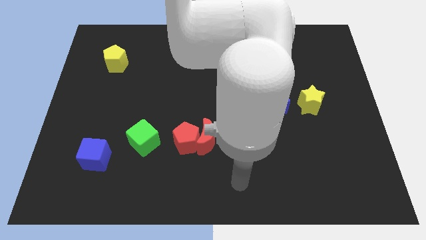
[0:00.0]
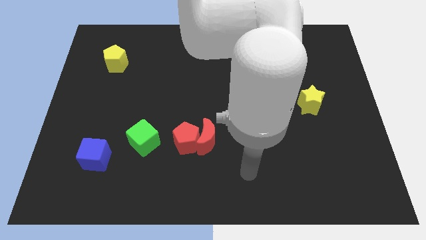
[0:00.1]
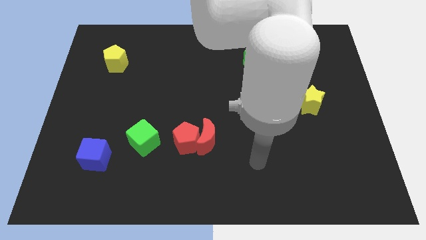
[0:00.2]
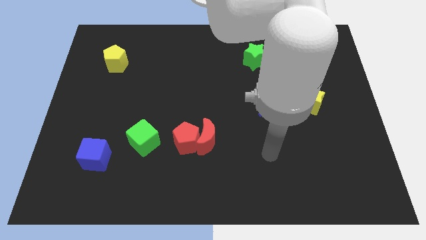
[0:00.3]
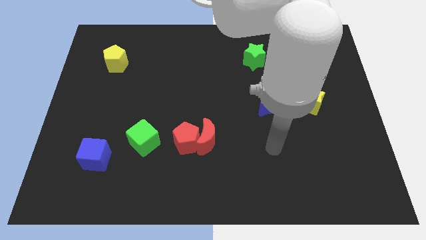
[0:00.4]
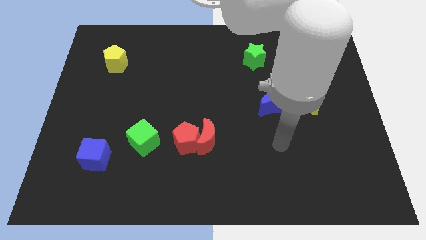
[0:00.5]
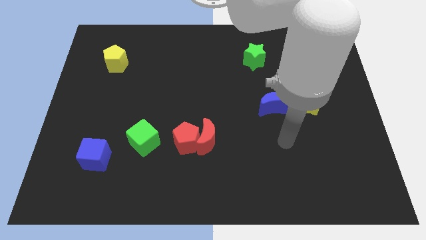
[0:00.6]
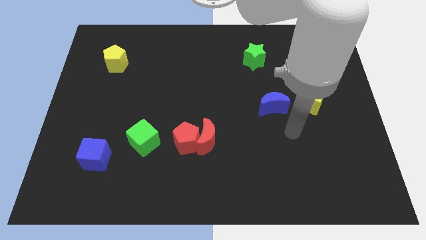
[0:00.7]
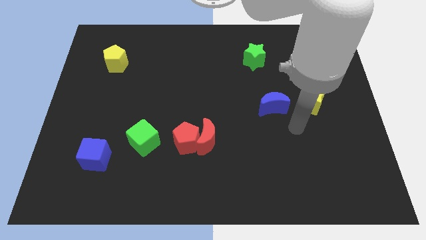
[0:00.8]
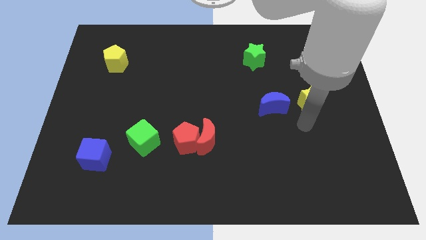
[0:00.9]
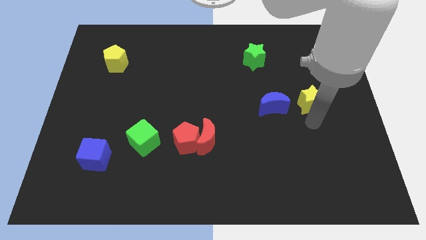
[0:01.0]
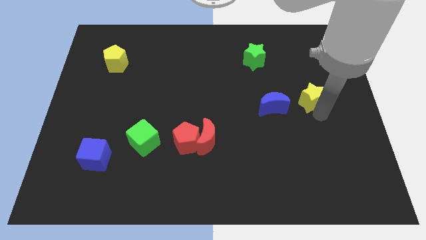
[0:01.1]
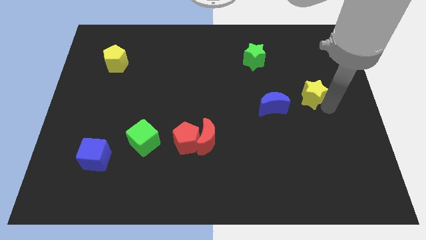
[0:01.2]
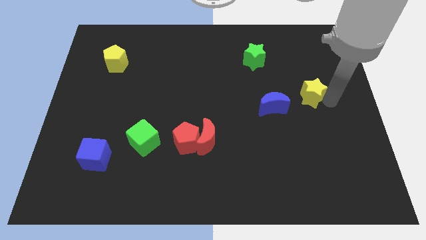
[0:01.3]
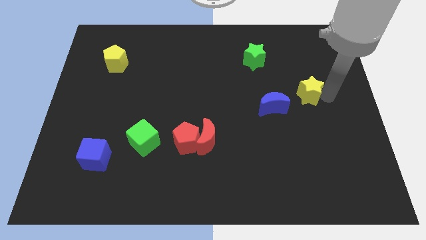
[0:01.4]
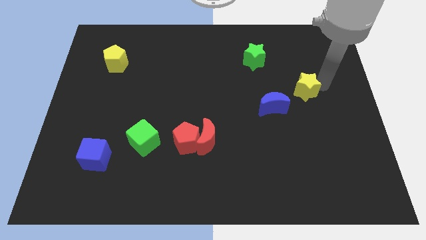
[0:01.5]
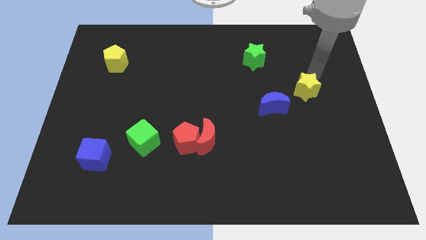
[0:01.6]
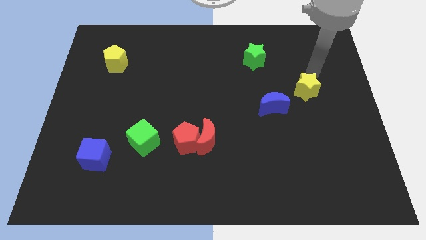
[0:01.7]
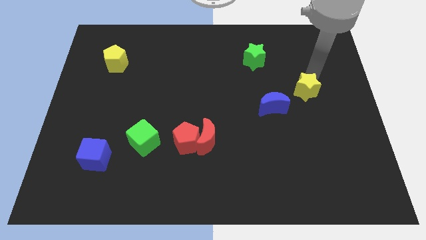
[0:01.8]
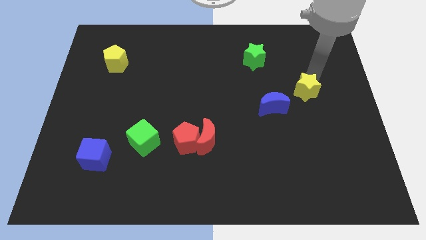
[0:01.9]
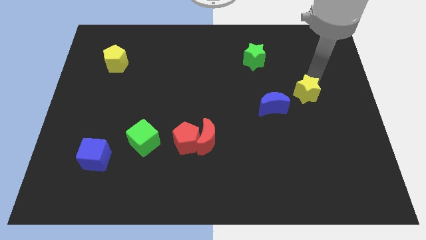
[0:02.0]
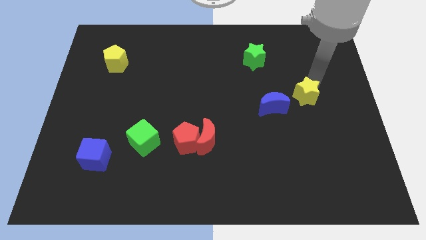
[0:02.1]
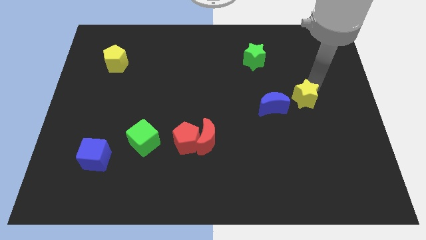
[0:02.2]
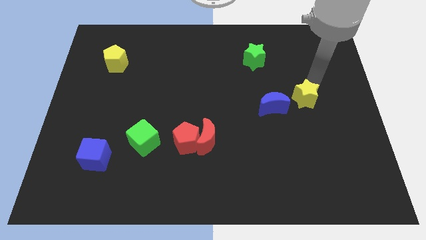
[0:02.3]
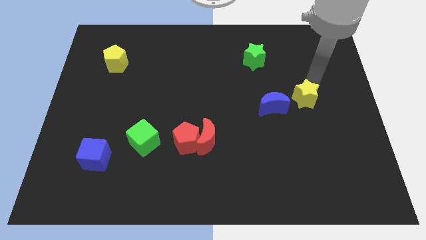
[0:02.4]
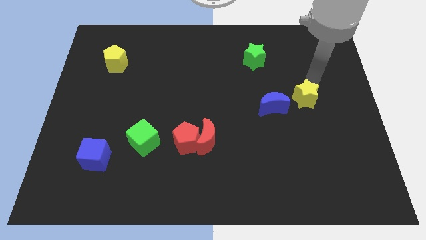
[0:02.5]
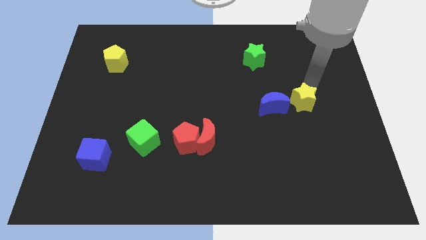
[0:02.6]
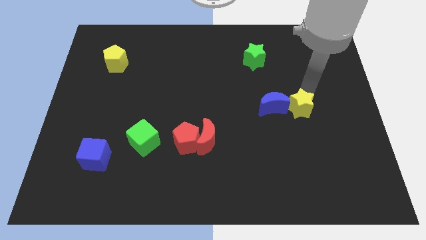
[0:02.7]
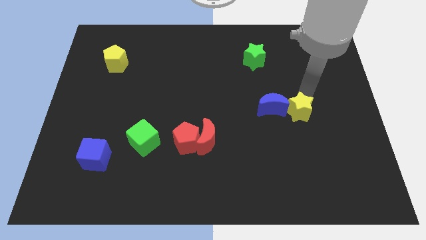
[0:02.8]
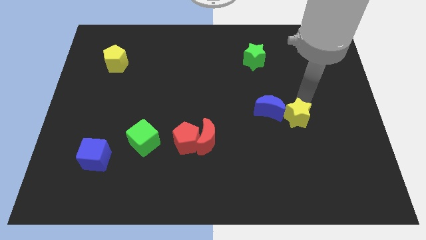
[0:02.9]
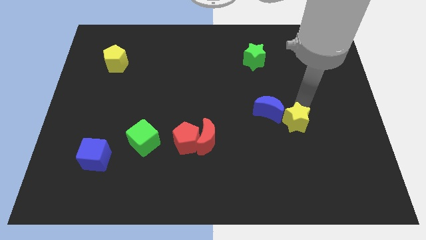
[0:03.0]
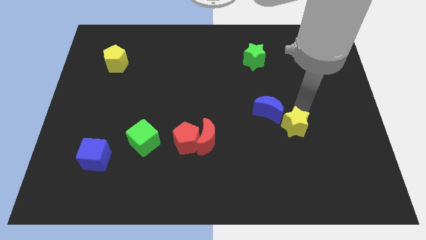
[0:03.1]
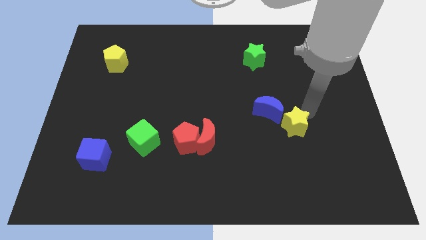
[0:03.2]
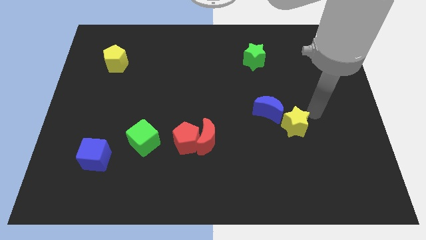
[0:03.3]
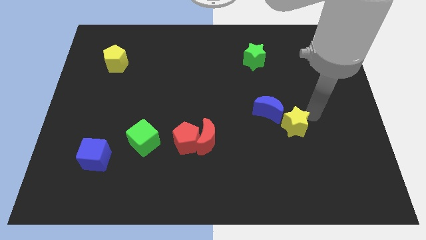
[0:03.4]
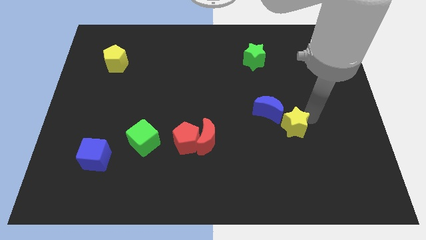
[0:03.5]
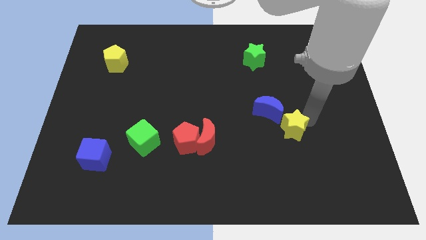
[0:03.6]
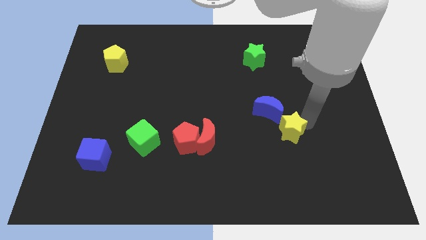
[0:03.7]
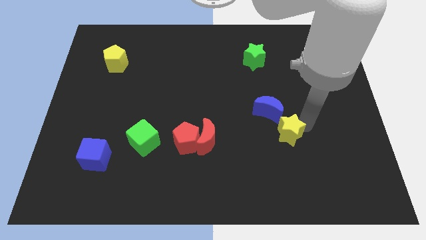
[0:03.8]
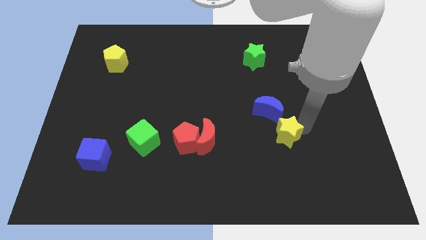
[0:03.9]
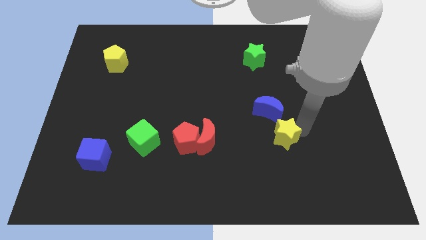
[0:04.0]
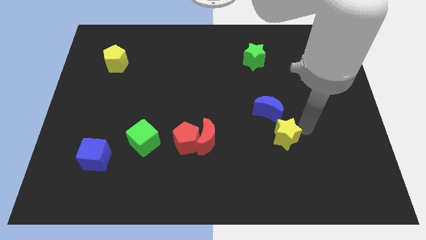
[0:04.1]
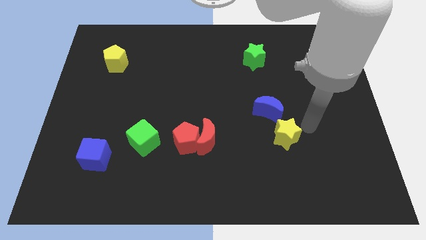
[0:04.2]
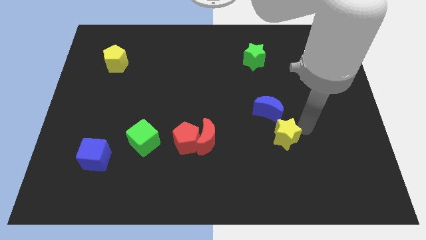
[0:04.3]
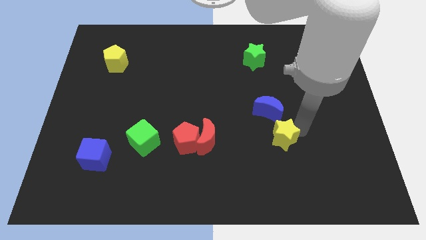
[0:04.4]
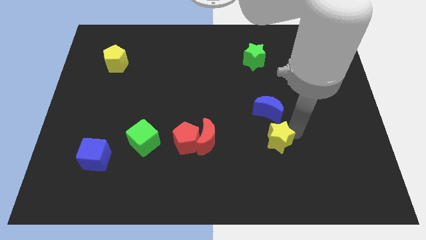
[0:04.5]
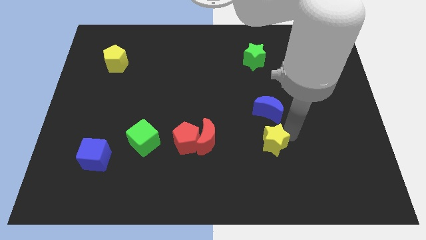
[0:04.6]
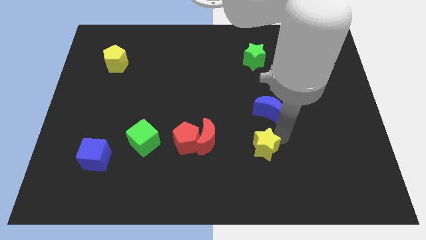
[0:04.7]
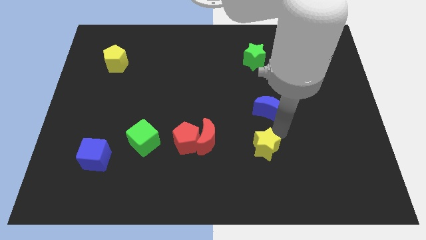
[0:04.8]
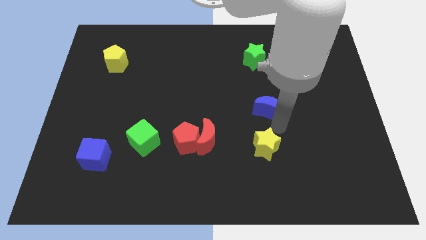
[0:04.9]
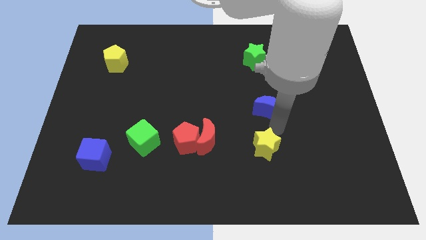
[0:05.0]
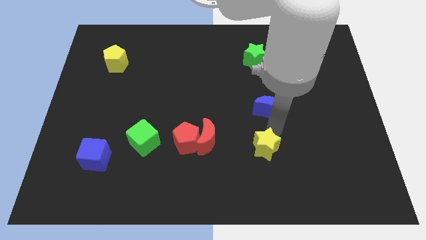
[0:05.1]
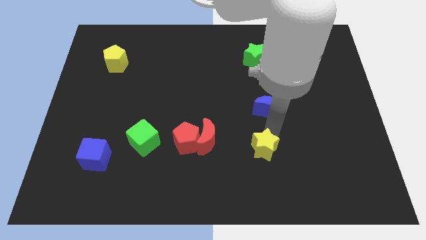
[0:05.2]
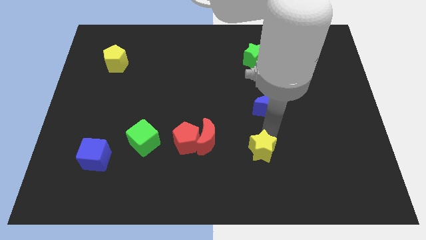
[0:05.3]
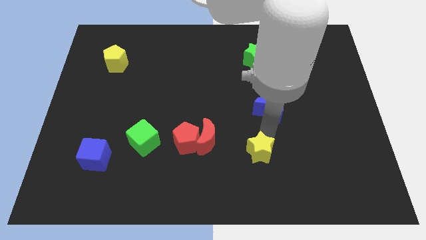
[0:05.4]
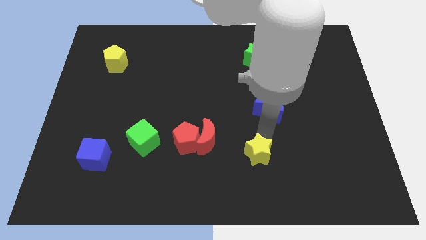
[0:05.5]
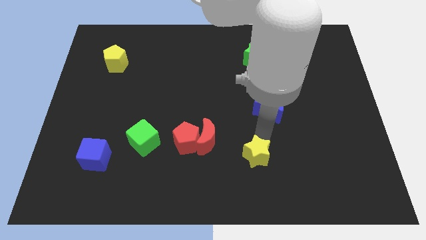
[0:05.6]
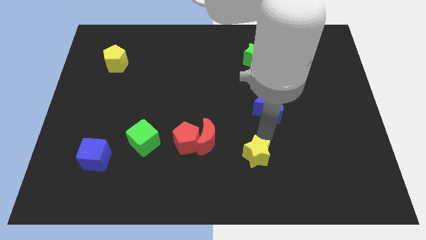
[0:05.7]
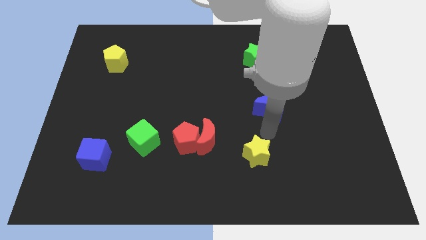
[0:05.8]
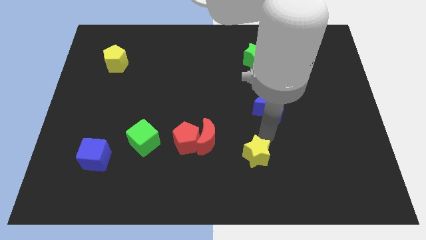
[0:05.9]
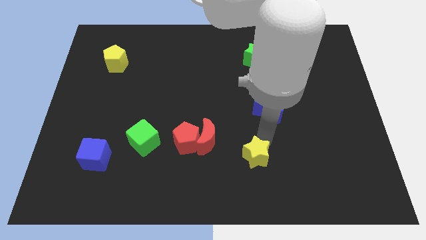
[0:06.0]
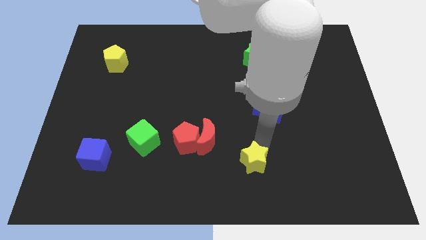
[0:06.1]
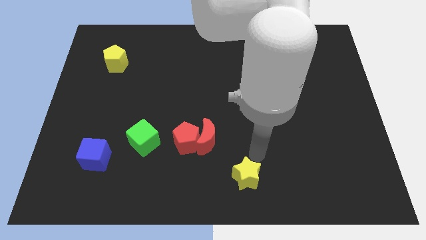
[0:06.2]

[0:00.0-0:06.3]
push the yellow star to the bottom

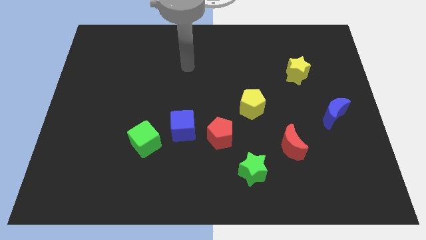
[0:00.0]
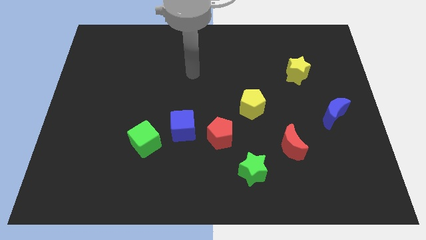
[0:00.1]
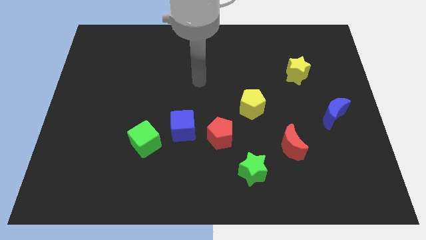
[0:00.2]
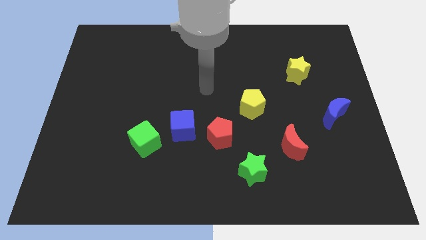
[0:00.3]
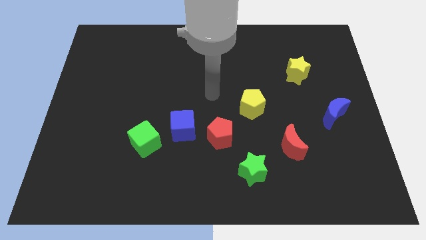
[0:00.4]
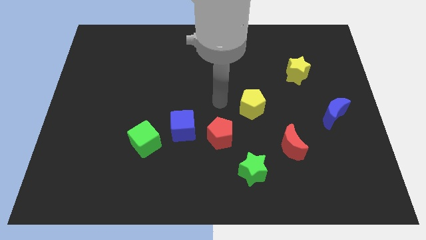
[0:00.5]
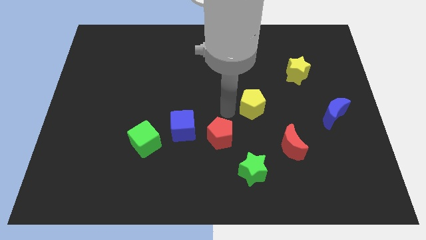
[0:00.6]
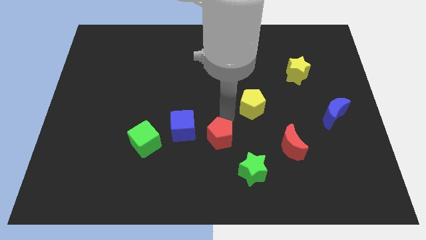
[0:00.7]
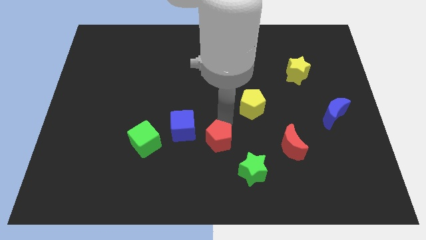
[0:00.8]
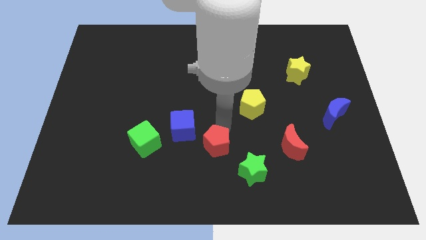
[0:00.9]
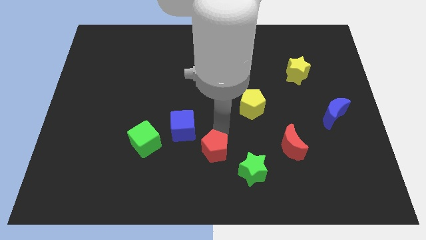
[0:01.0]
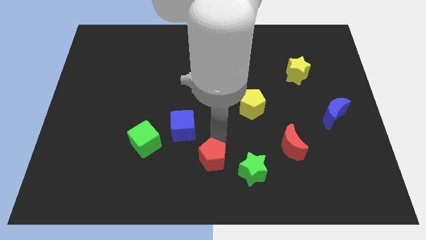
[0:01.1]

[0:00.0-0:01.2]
move the red pentagon to the bottom side
